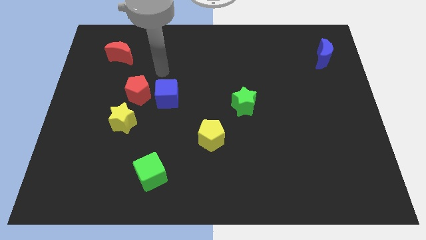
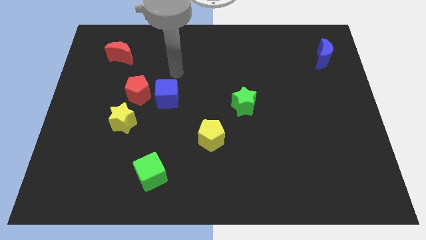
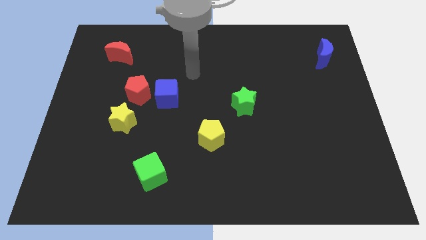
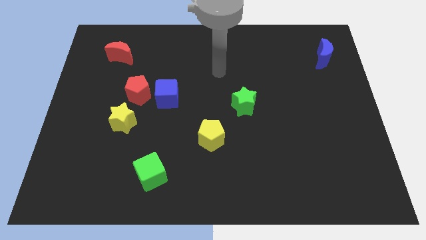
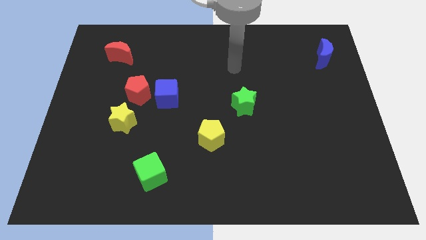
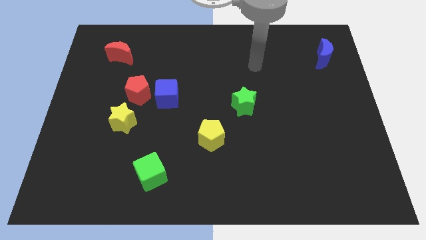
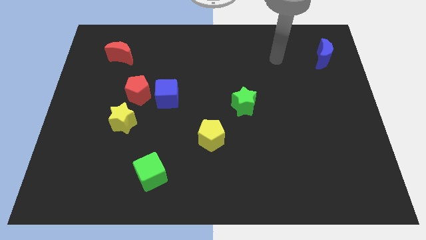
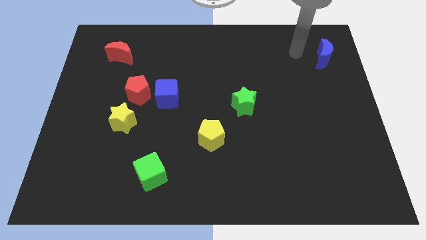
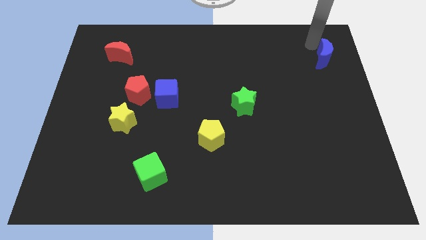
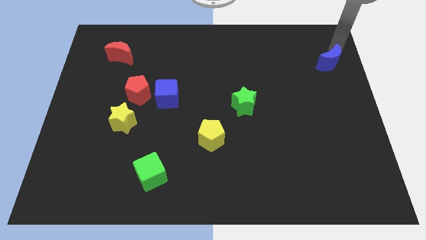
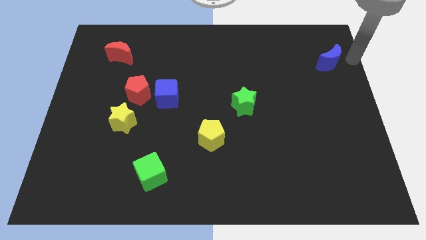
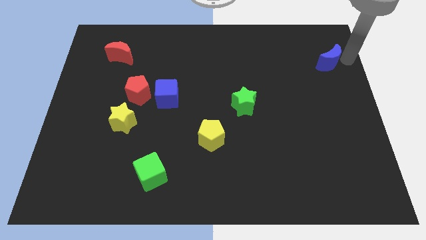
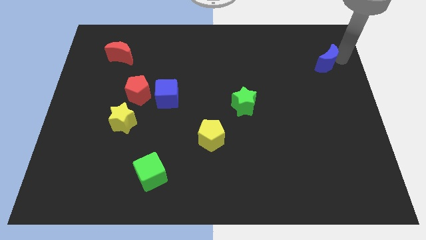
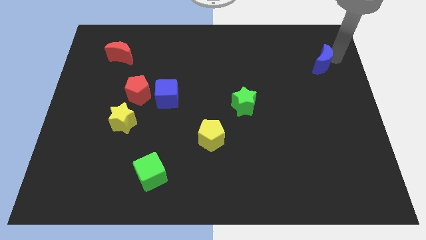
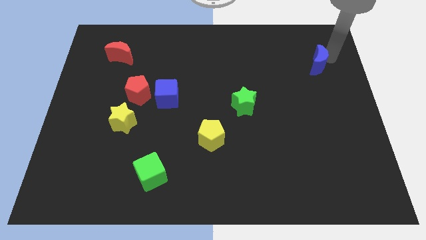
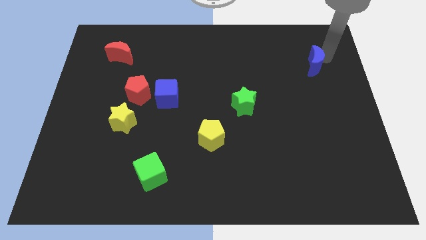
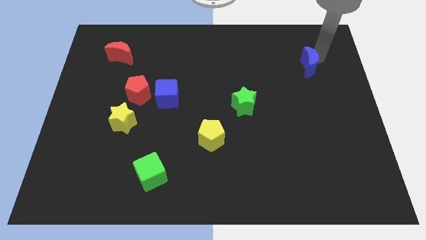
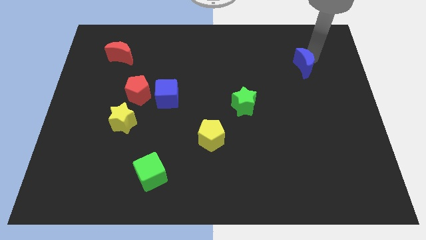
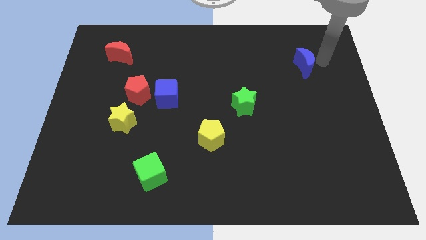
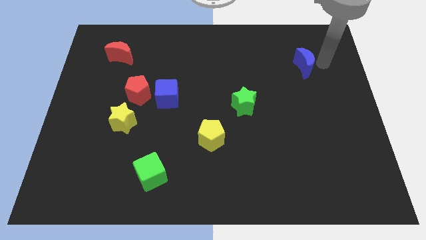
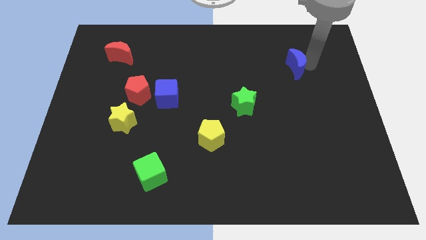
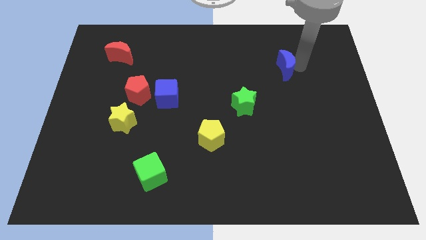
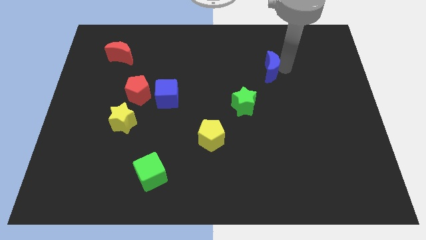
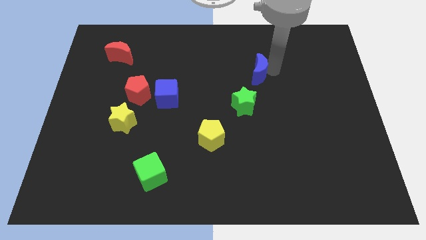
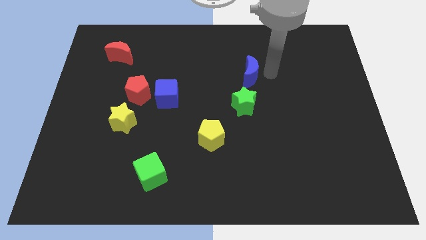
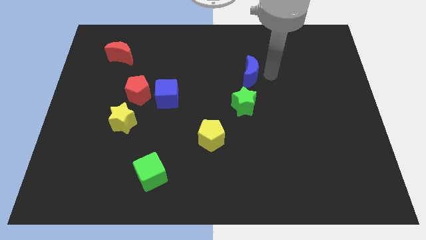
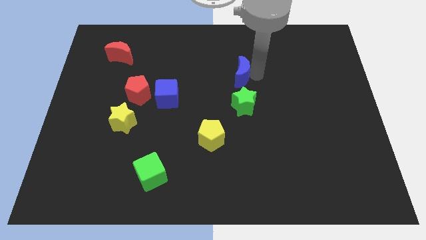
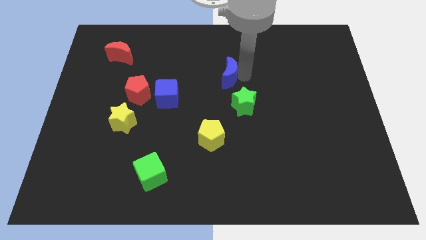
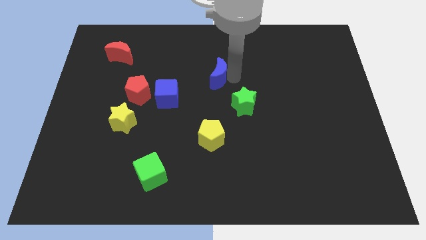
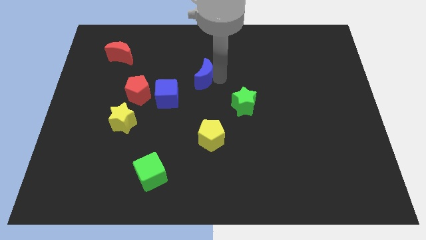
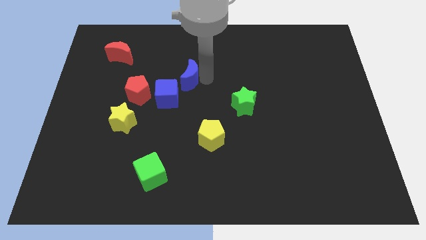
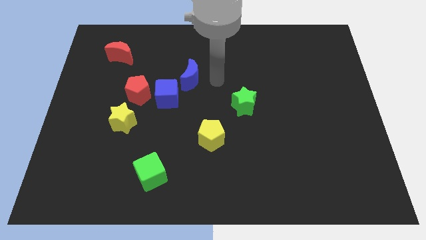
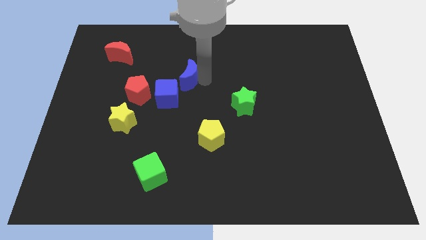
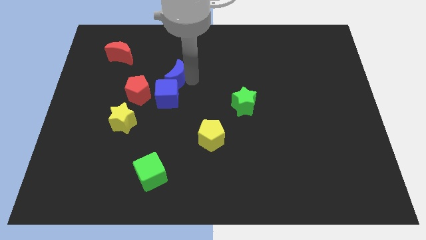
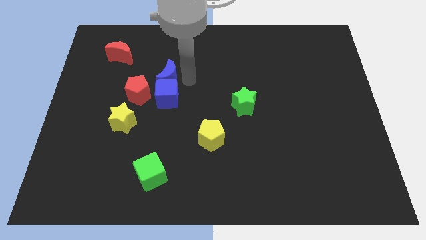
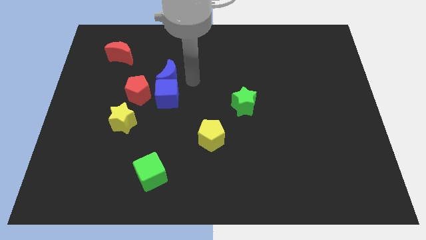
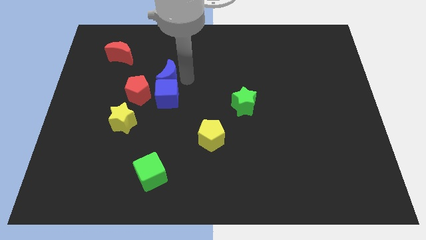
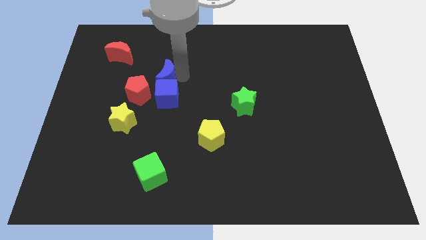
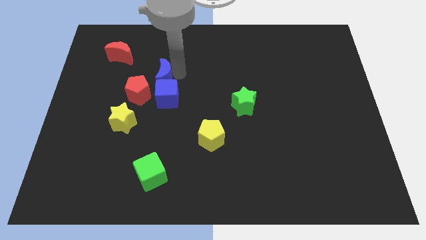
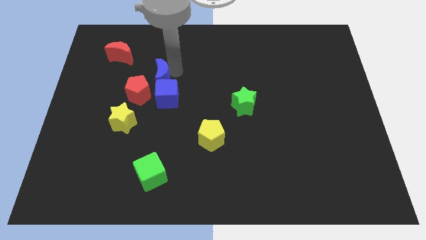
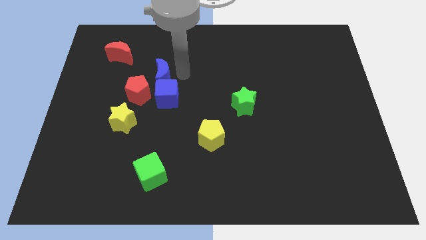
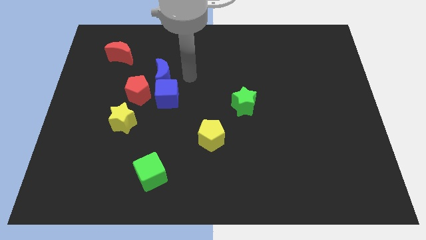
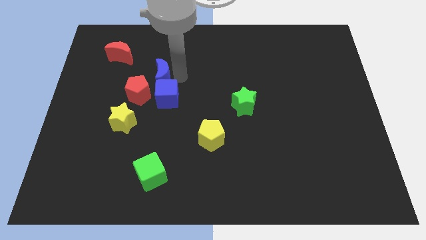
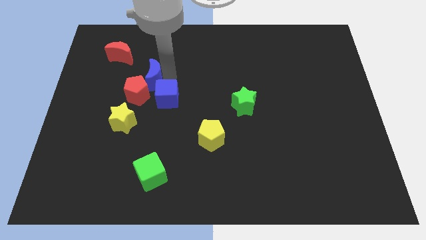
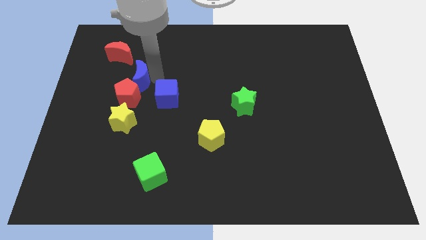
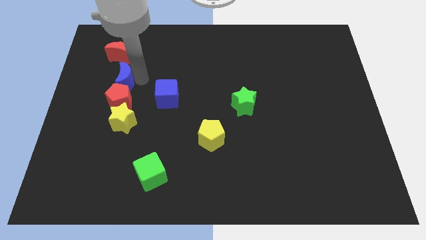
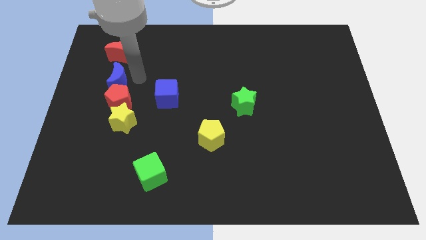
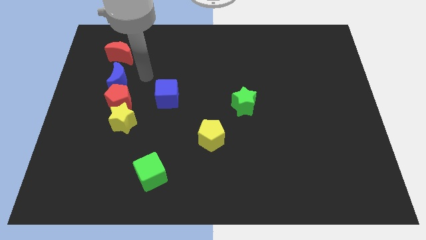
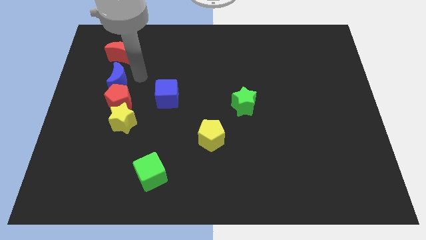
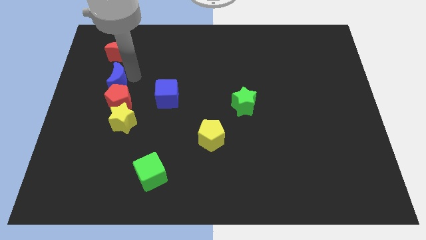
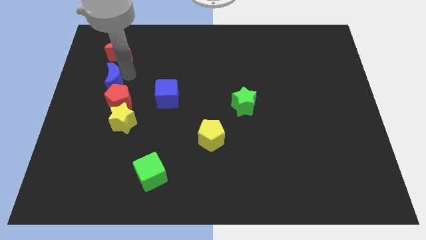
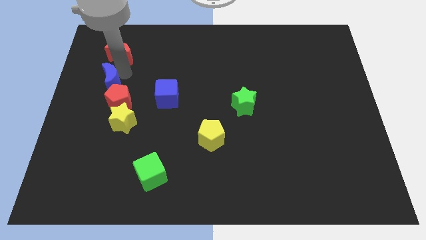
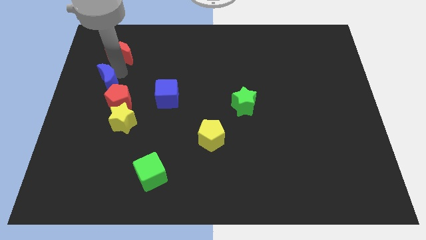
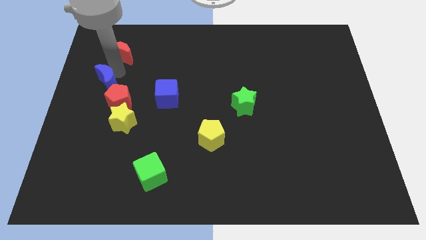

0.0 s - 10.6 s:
put the blue moon to the left side

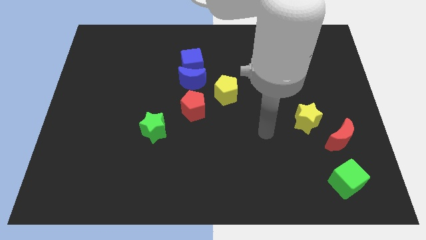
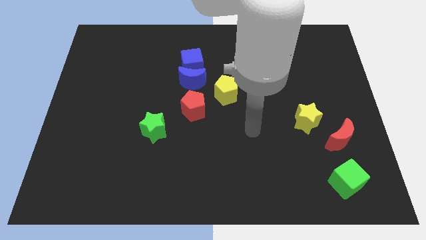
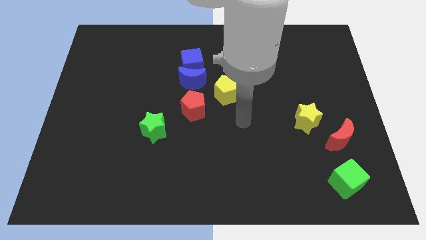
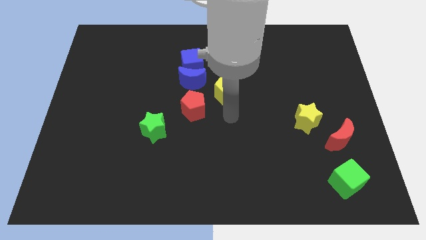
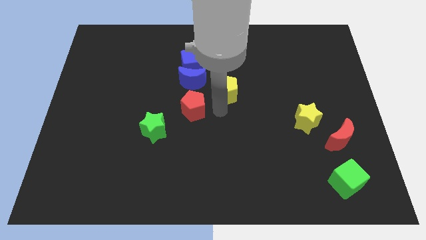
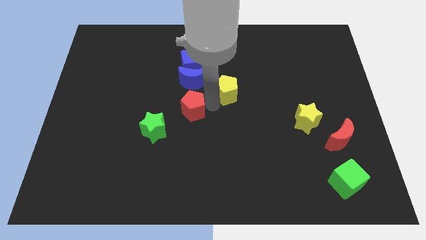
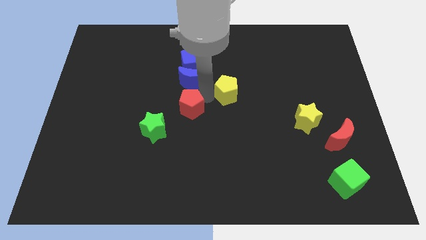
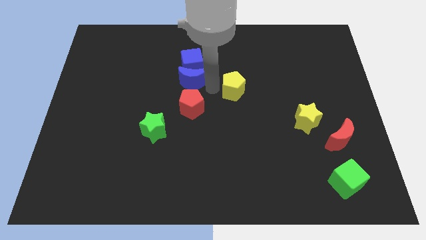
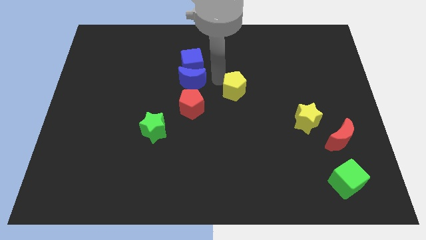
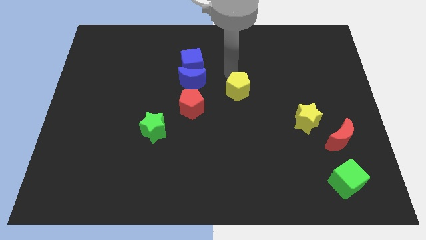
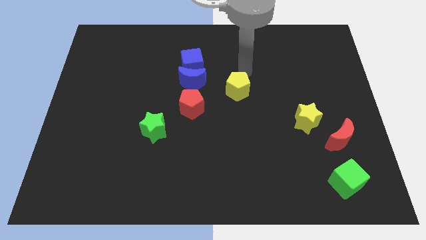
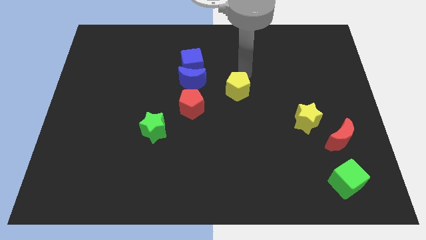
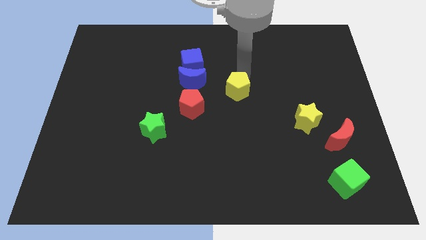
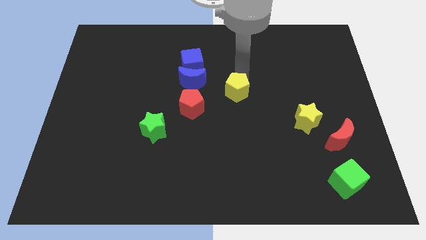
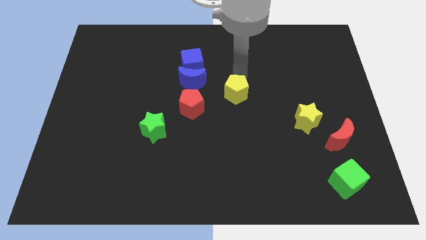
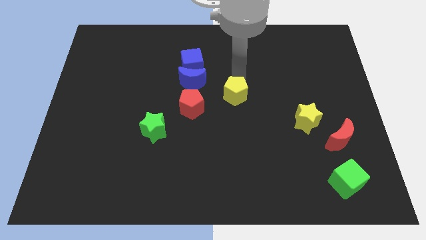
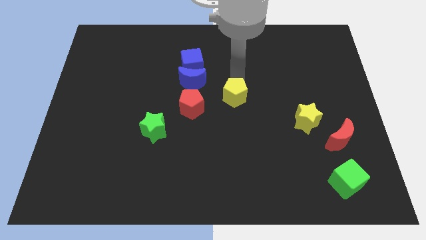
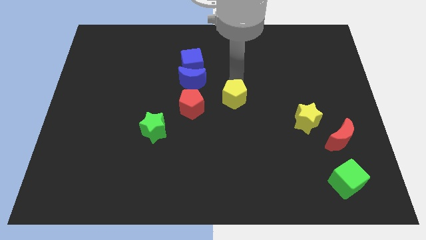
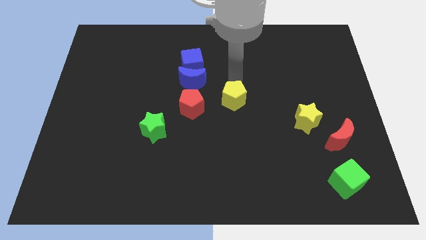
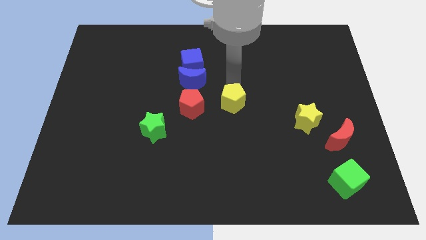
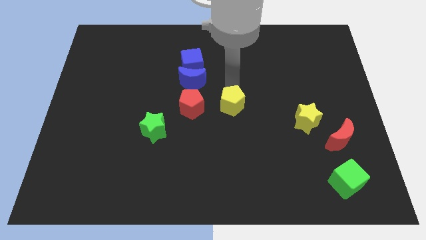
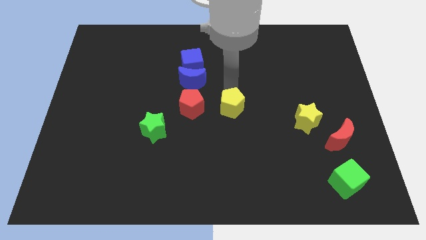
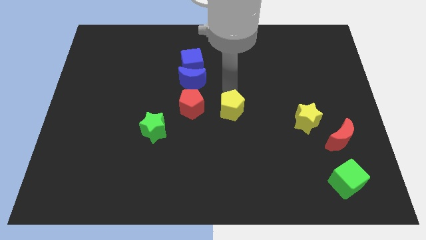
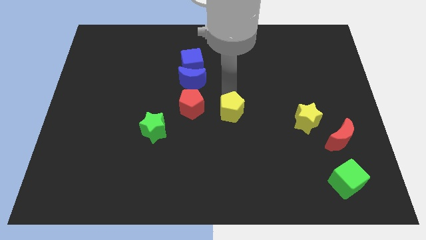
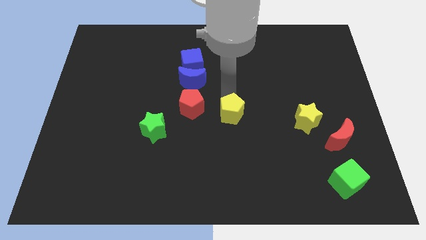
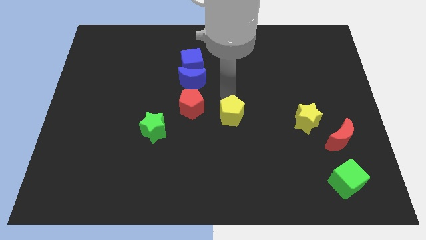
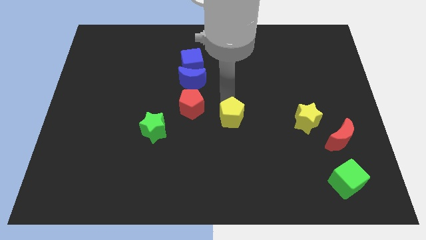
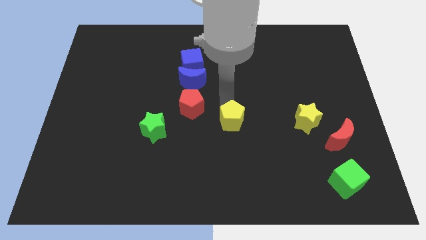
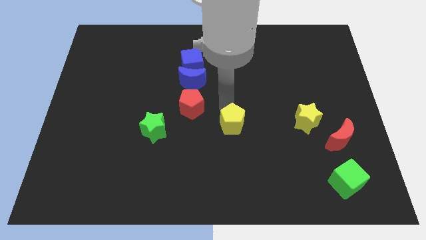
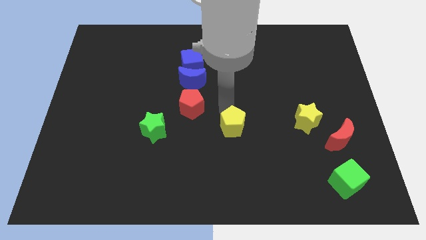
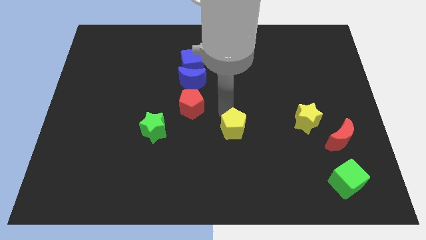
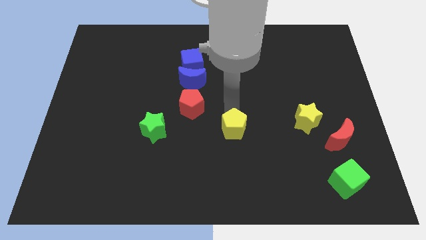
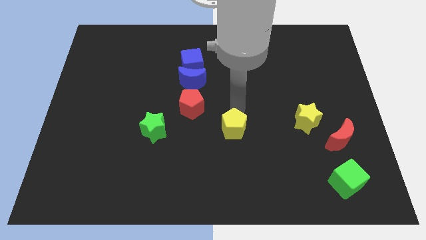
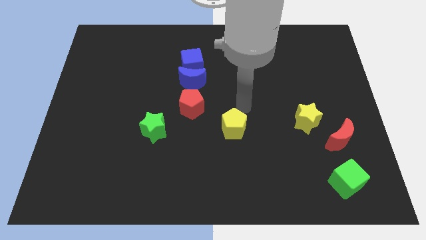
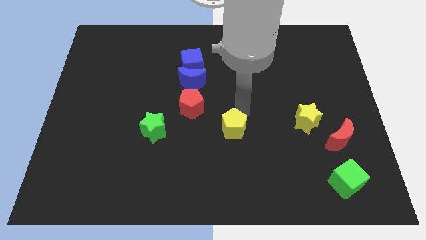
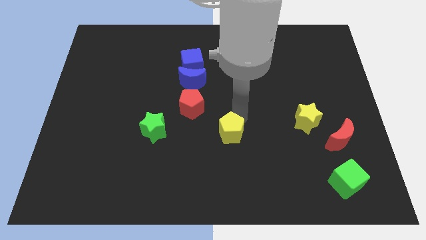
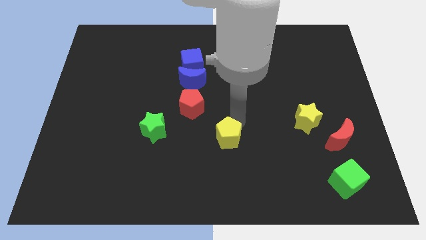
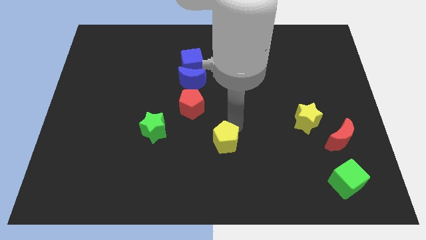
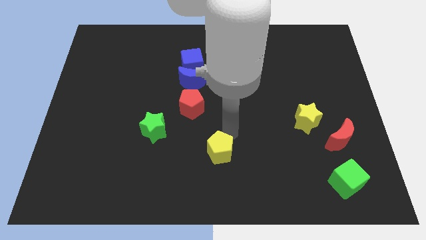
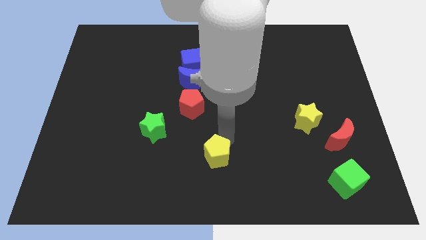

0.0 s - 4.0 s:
move the yellow pentagon to the bottom side
